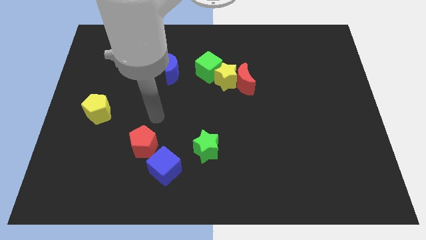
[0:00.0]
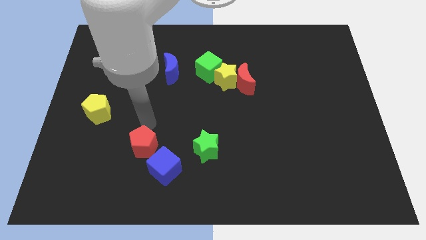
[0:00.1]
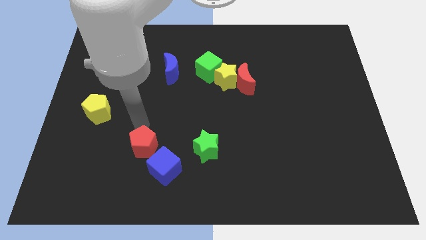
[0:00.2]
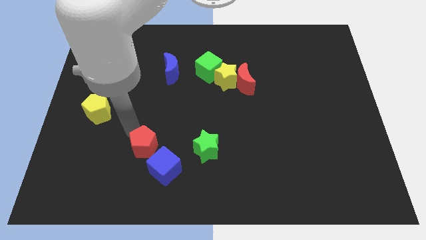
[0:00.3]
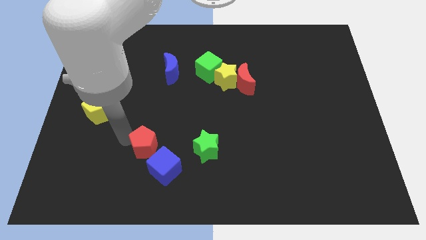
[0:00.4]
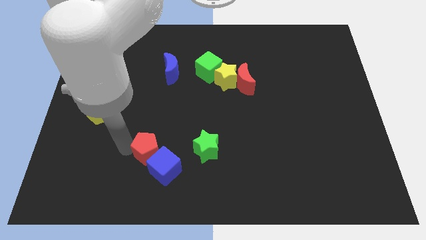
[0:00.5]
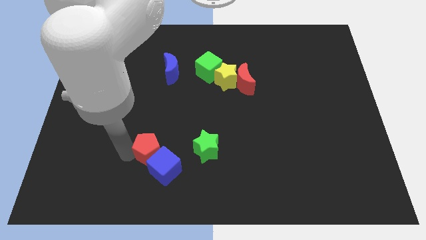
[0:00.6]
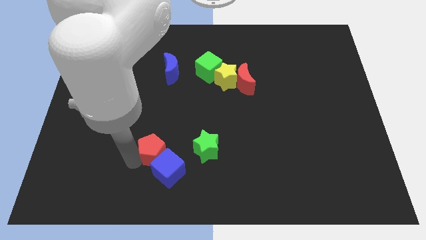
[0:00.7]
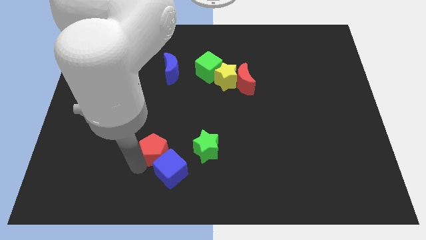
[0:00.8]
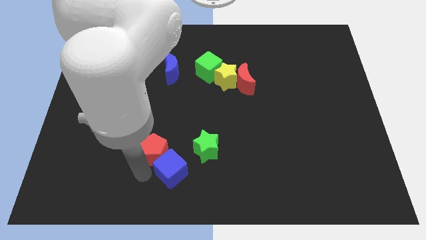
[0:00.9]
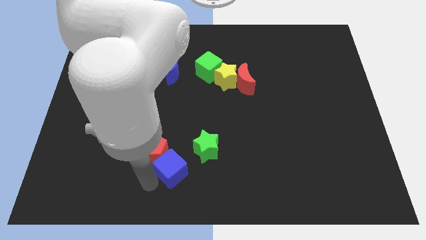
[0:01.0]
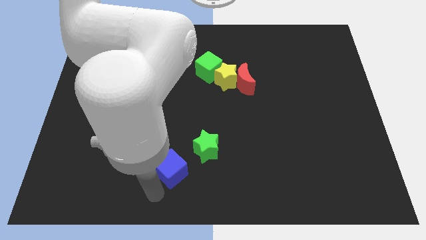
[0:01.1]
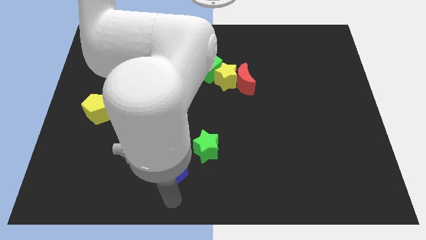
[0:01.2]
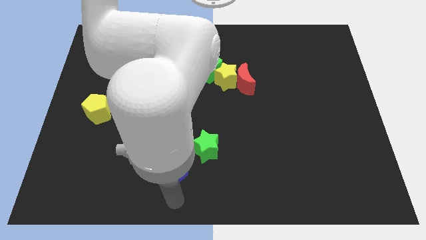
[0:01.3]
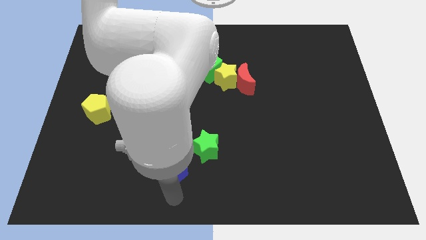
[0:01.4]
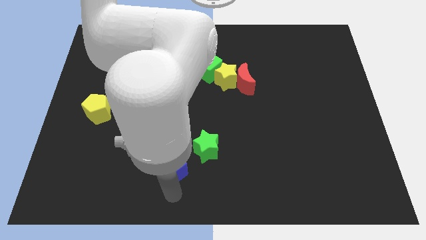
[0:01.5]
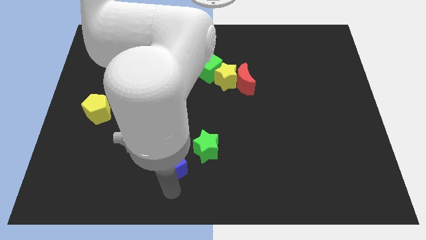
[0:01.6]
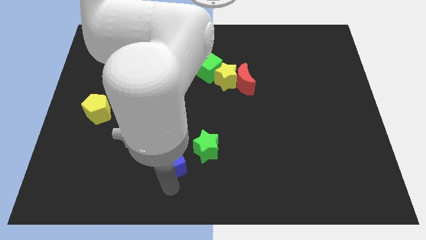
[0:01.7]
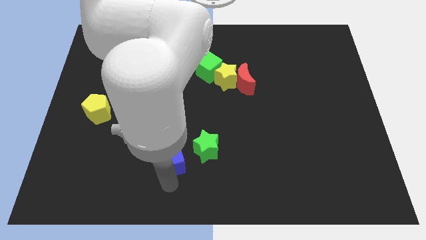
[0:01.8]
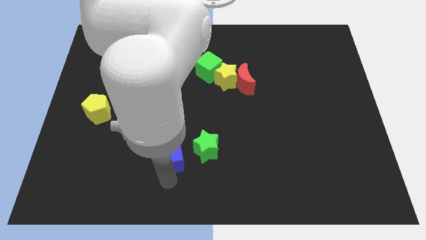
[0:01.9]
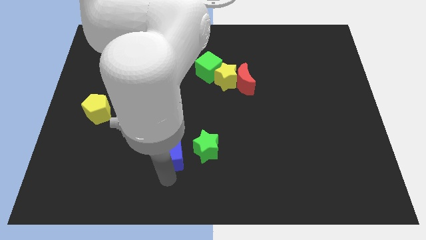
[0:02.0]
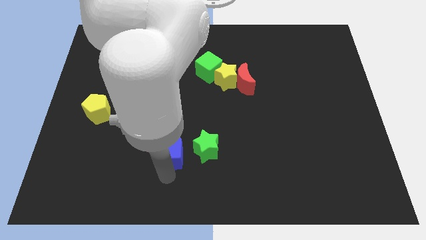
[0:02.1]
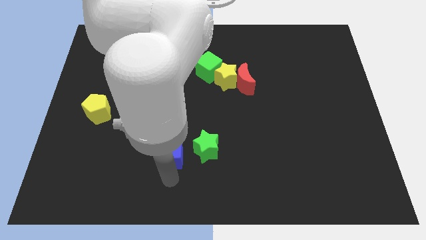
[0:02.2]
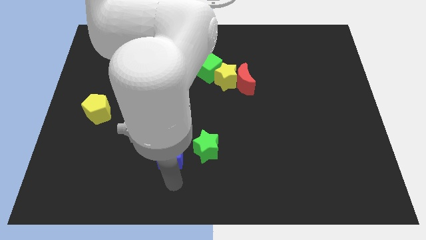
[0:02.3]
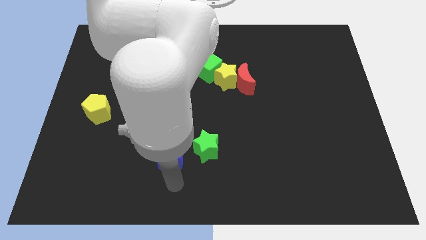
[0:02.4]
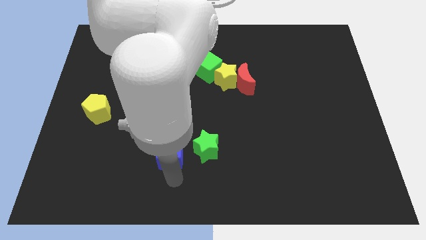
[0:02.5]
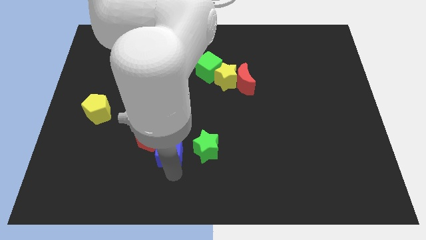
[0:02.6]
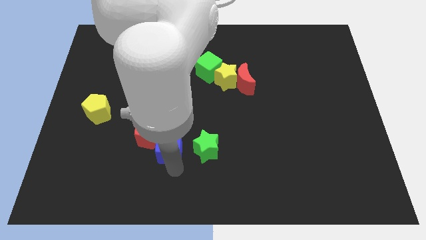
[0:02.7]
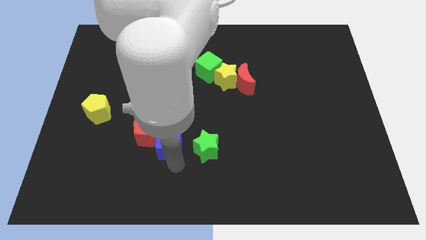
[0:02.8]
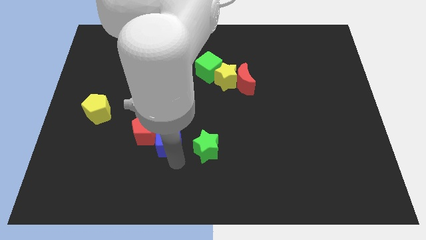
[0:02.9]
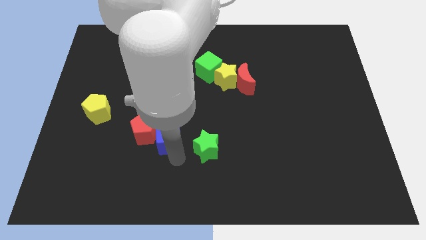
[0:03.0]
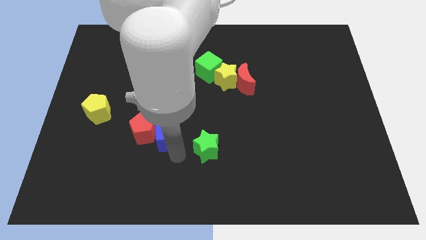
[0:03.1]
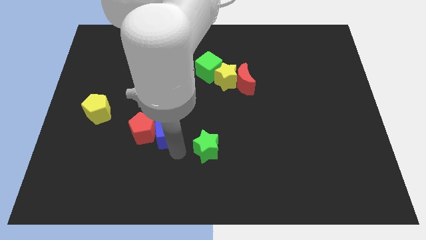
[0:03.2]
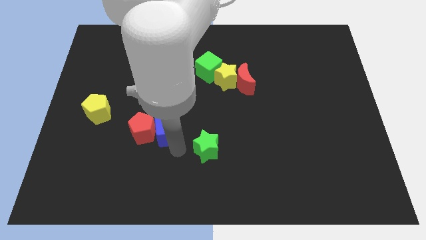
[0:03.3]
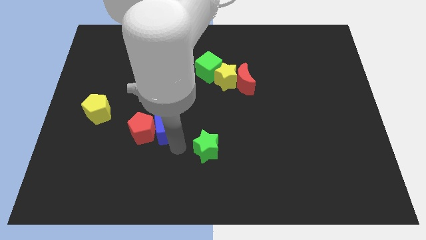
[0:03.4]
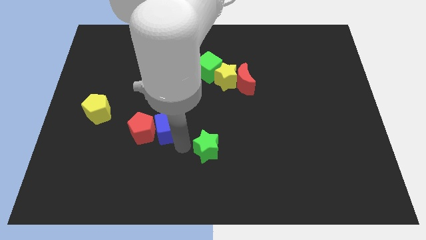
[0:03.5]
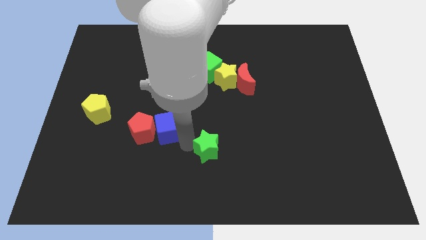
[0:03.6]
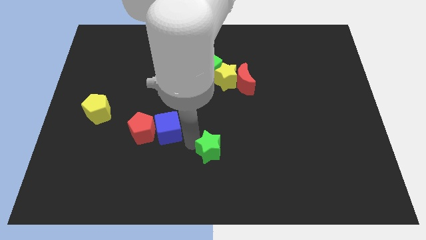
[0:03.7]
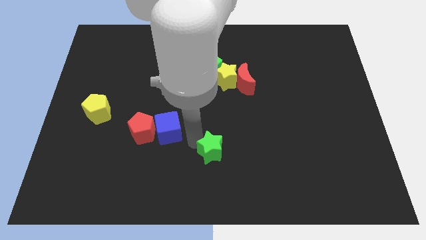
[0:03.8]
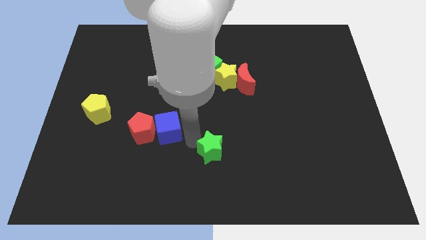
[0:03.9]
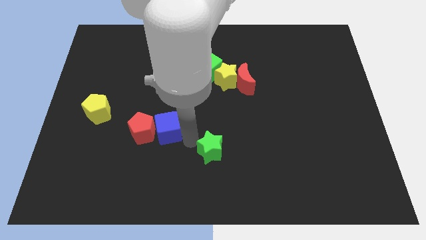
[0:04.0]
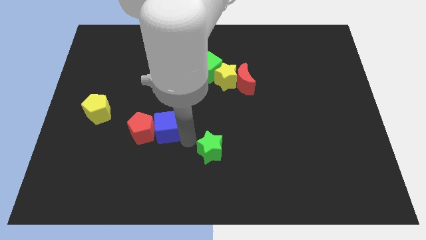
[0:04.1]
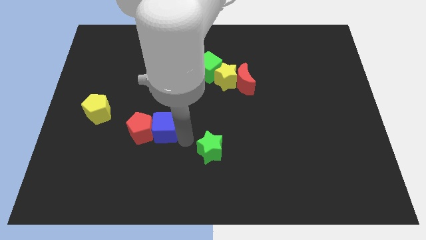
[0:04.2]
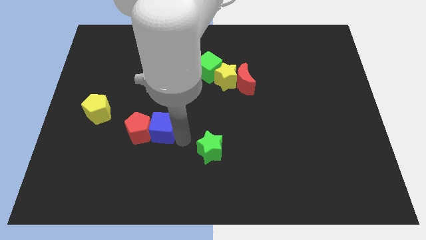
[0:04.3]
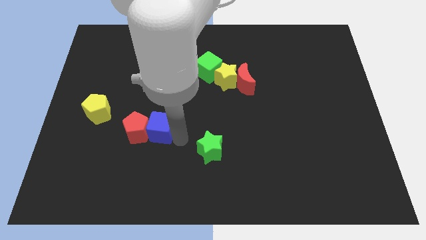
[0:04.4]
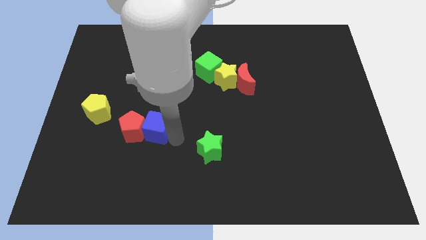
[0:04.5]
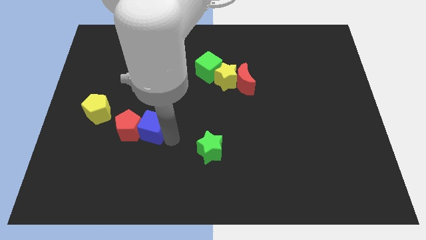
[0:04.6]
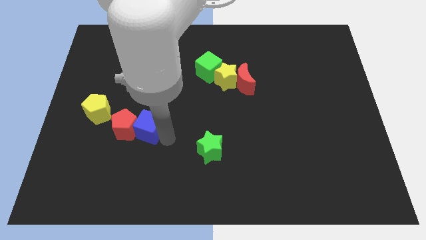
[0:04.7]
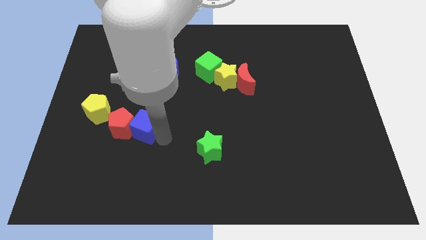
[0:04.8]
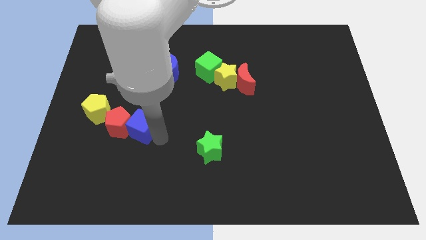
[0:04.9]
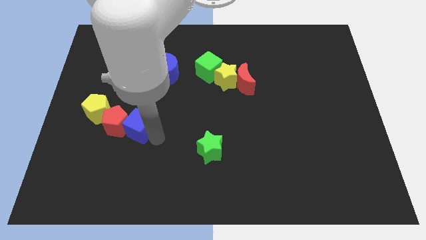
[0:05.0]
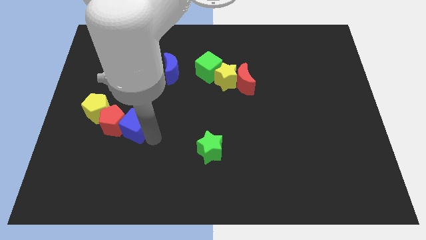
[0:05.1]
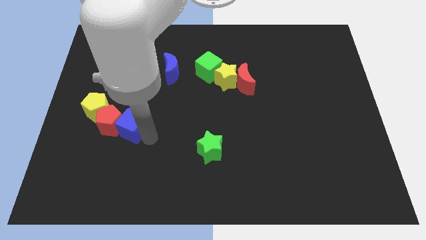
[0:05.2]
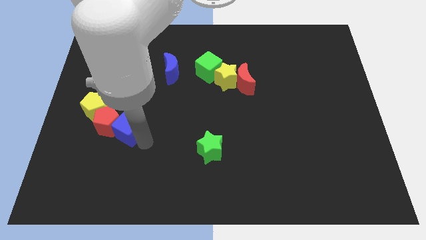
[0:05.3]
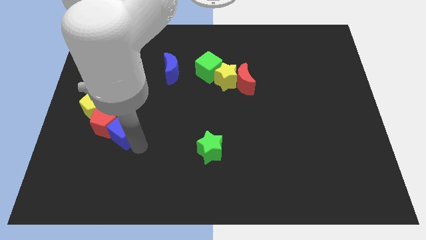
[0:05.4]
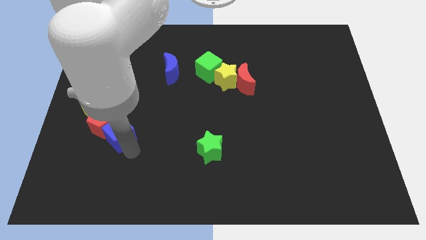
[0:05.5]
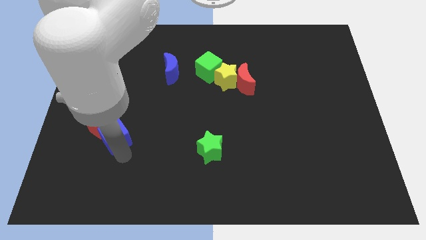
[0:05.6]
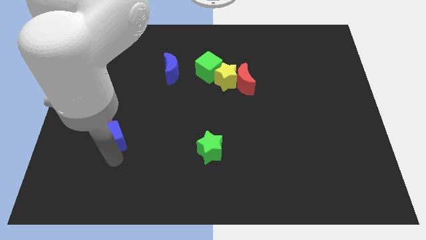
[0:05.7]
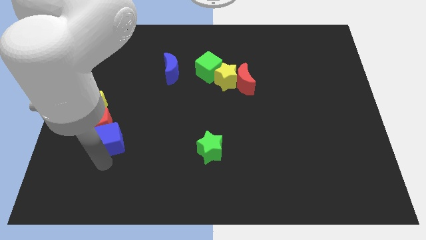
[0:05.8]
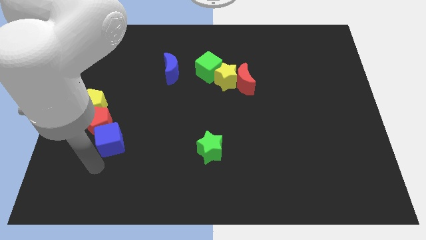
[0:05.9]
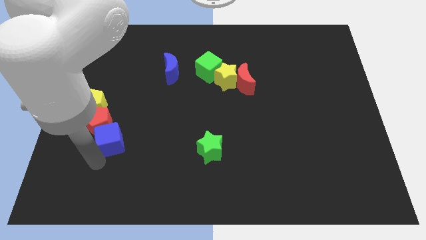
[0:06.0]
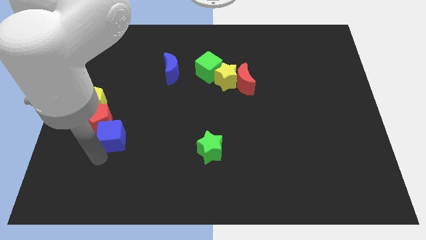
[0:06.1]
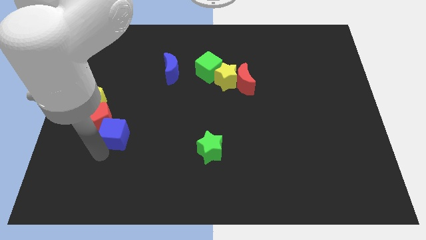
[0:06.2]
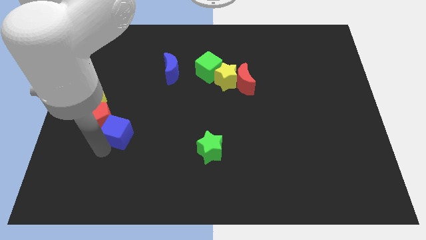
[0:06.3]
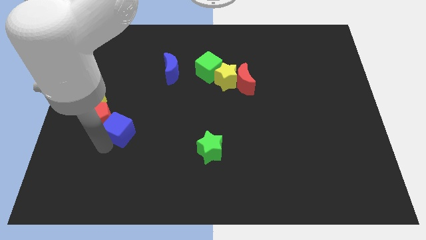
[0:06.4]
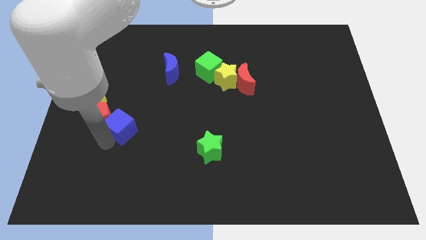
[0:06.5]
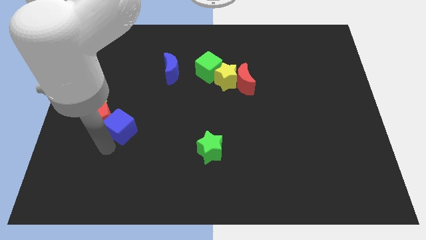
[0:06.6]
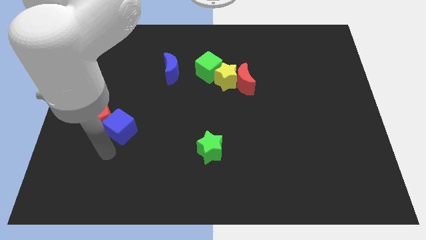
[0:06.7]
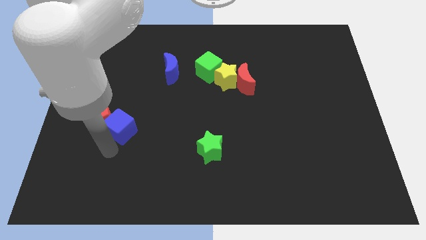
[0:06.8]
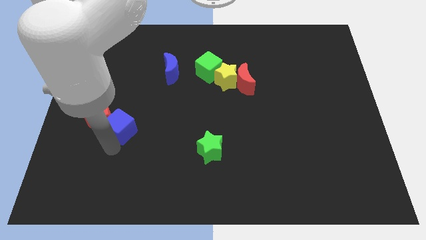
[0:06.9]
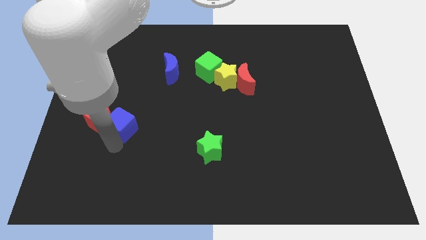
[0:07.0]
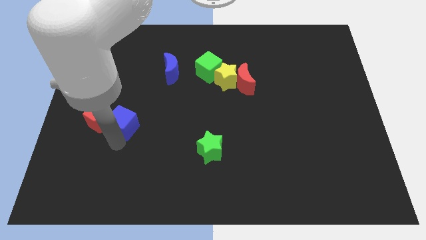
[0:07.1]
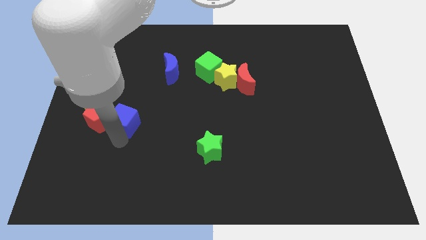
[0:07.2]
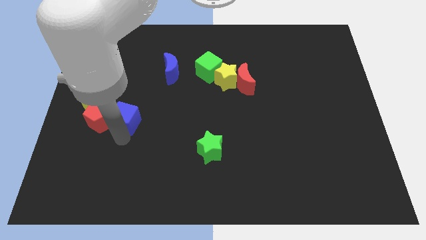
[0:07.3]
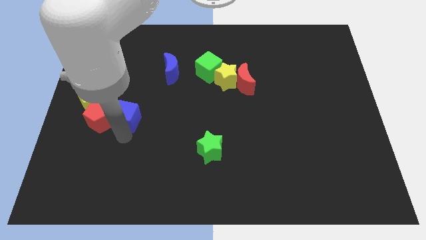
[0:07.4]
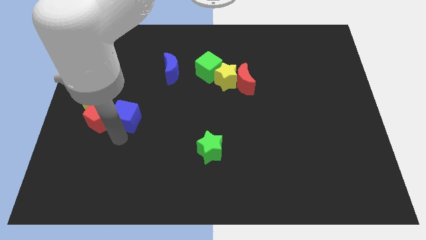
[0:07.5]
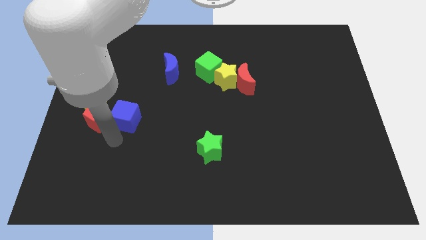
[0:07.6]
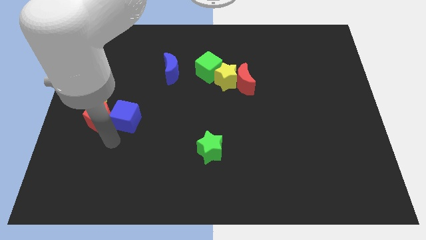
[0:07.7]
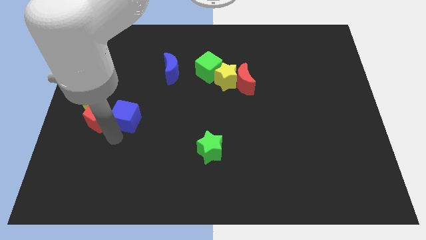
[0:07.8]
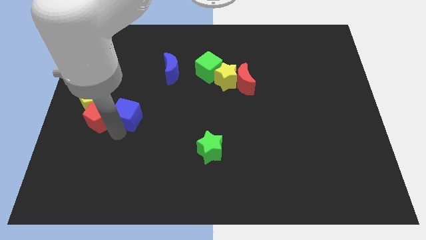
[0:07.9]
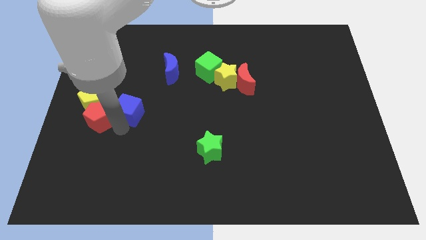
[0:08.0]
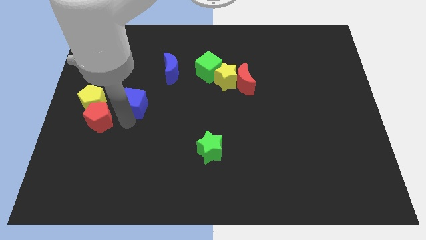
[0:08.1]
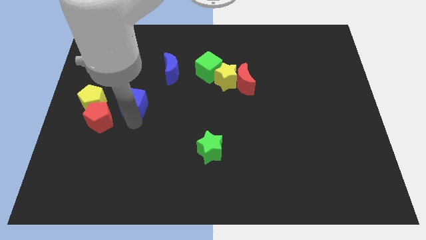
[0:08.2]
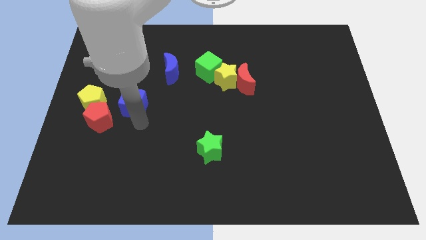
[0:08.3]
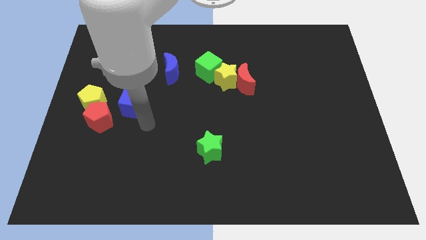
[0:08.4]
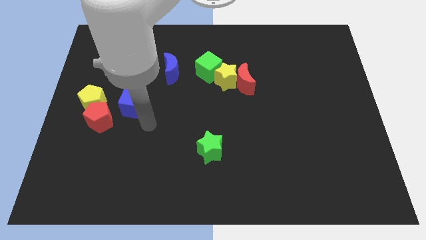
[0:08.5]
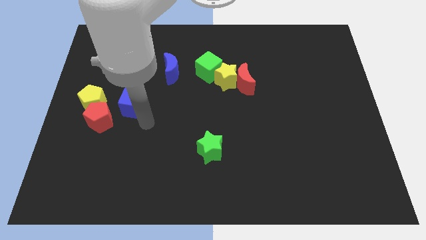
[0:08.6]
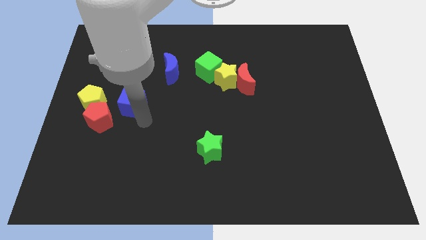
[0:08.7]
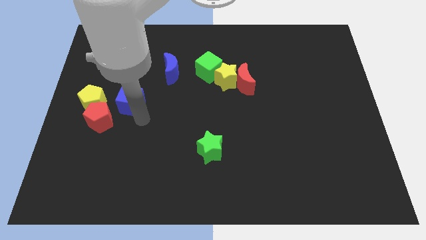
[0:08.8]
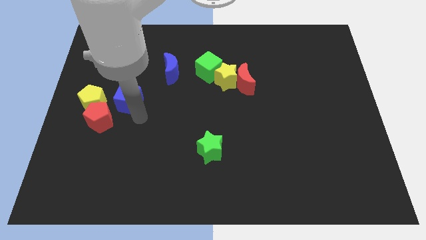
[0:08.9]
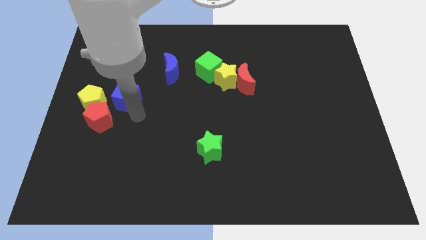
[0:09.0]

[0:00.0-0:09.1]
slide the blue cube to the top right of the yellow pentagon
